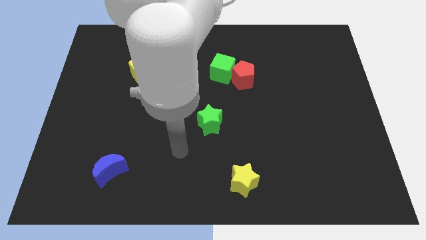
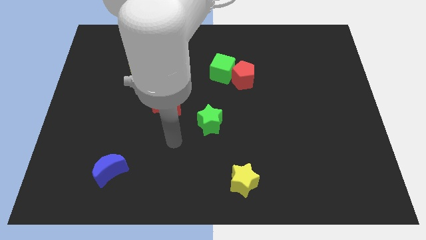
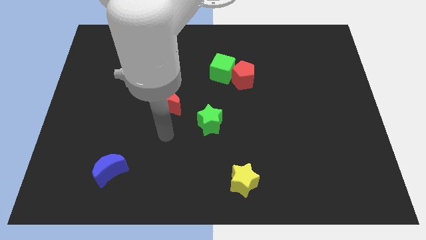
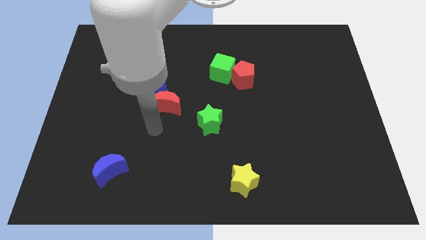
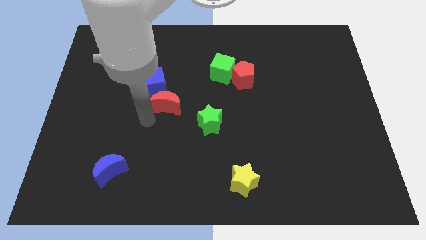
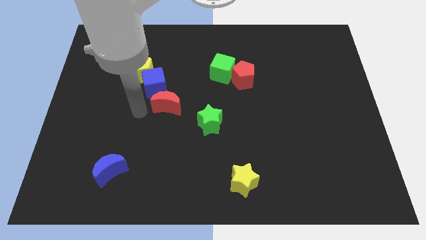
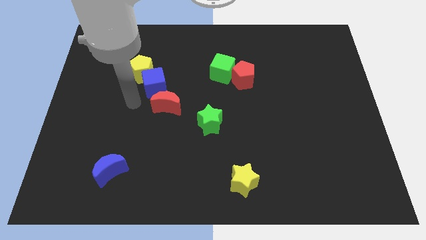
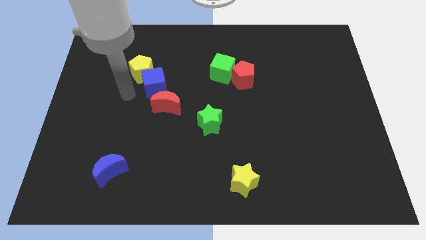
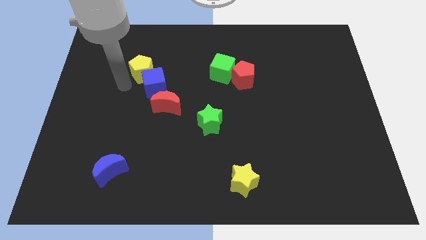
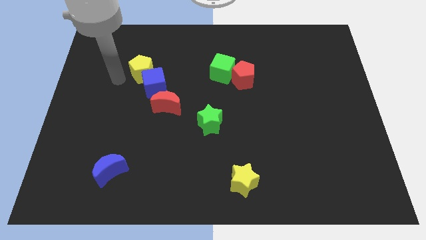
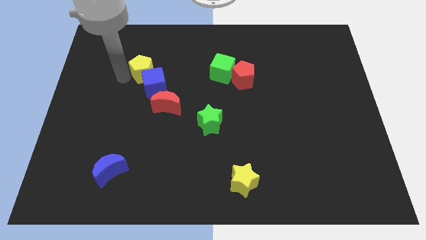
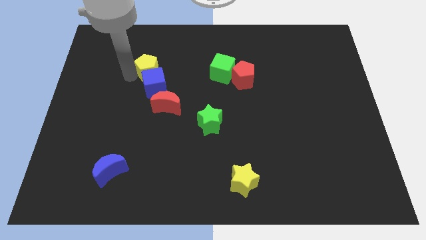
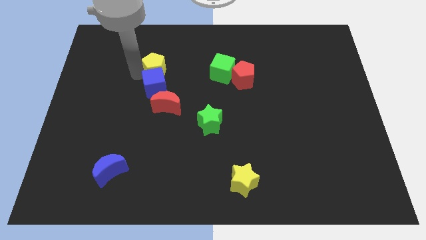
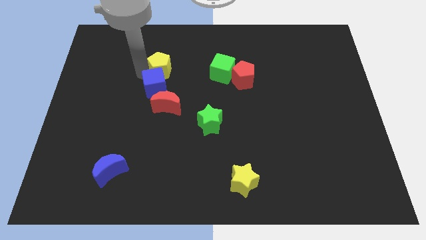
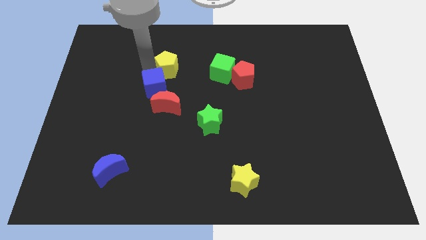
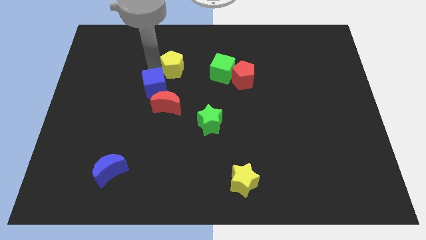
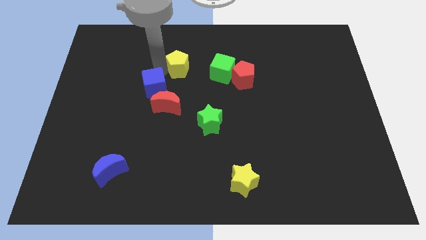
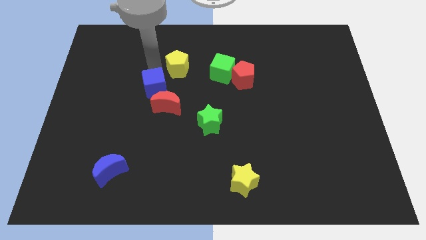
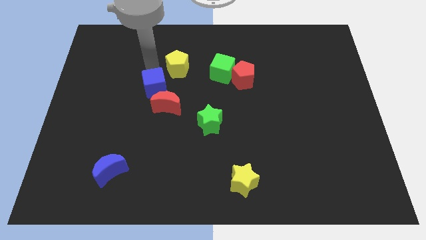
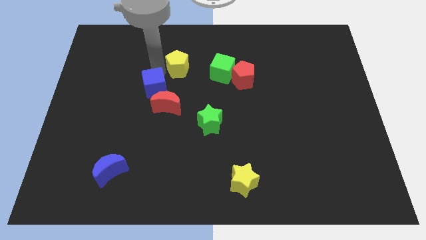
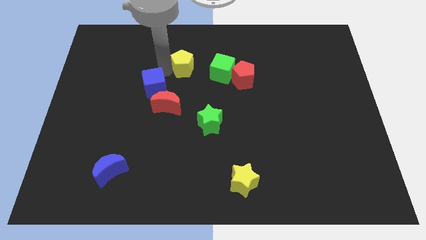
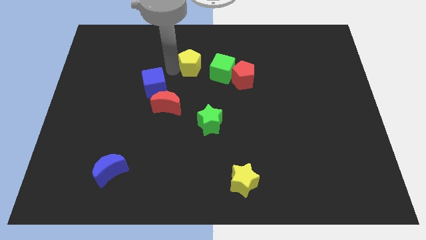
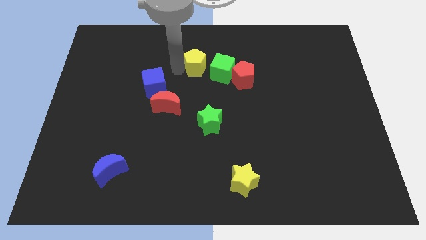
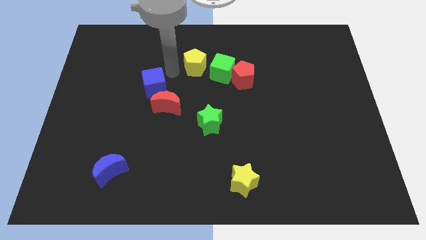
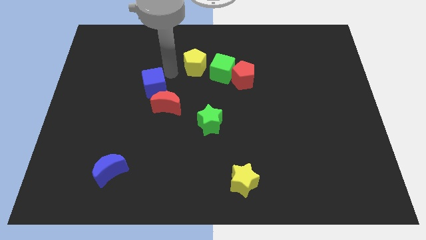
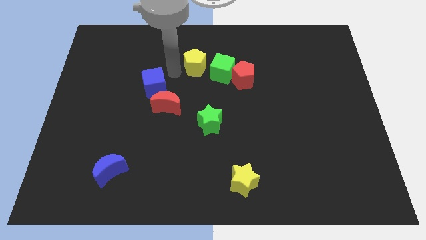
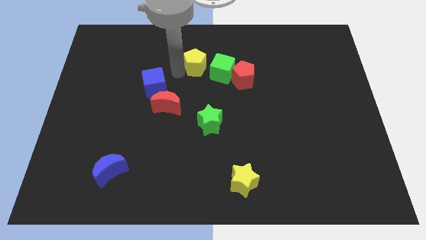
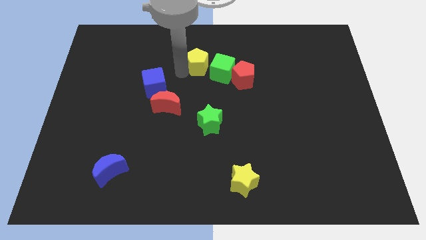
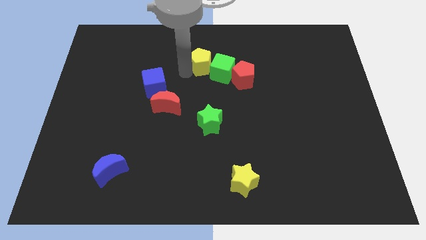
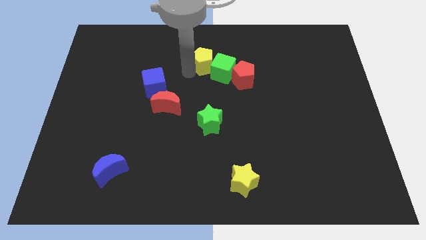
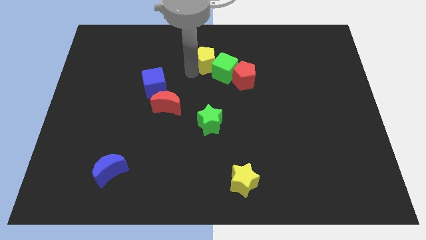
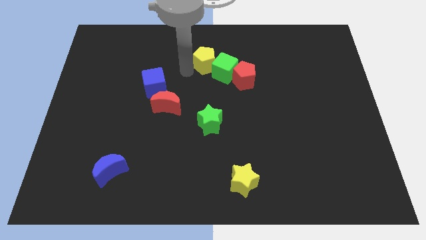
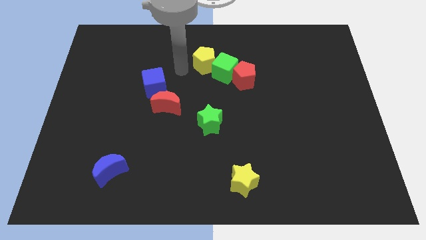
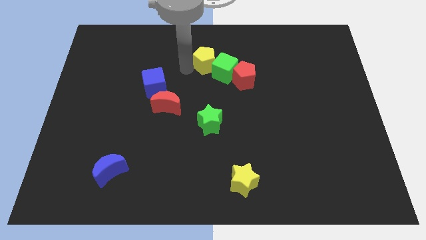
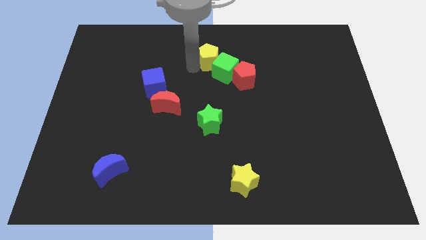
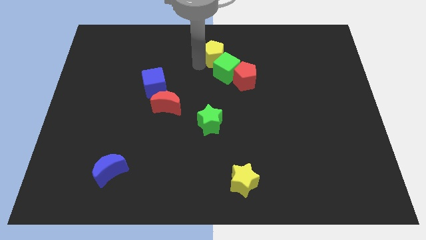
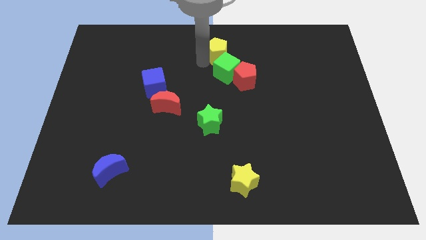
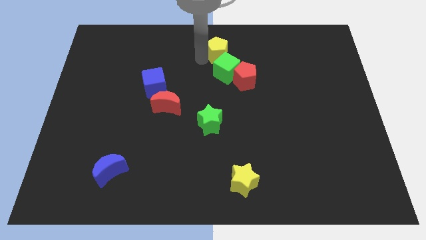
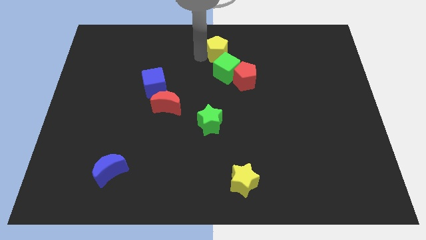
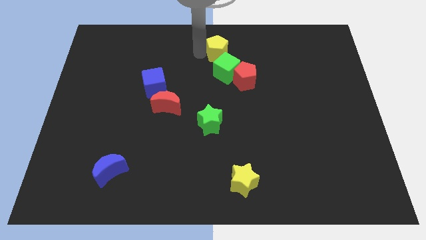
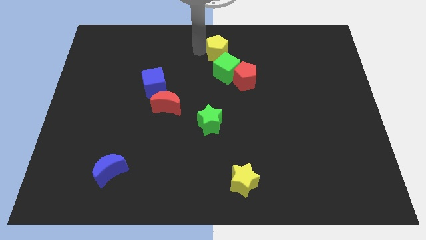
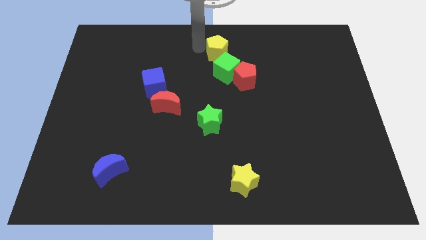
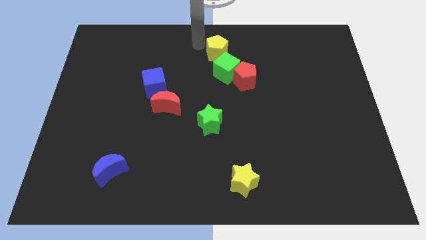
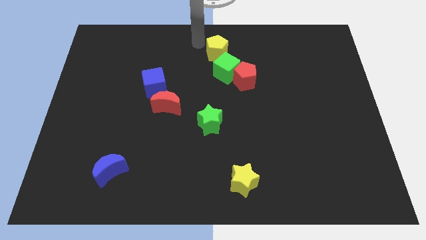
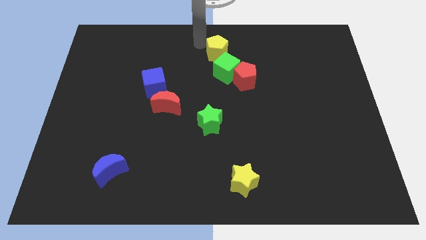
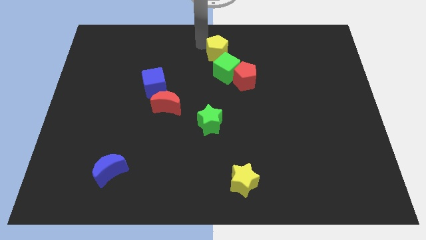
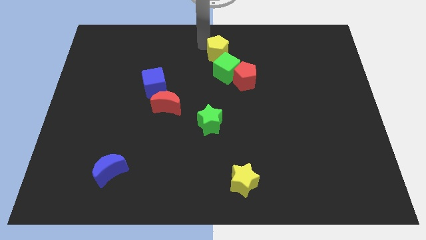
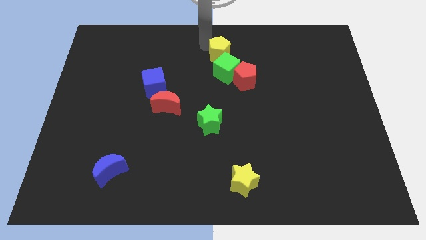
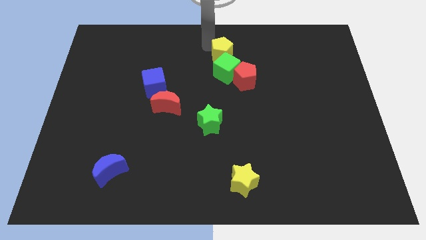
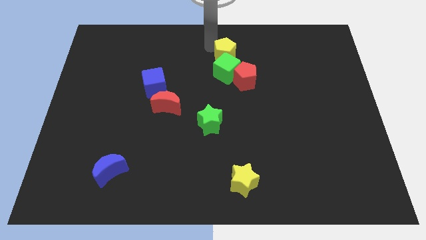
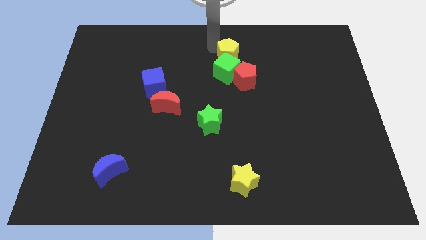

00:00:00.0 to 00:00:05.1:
move the yellow pentagon right

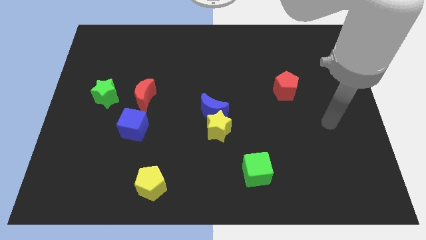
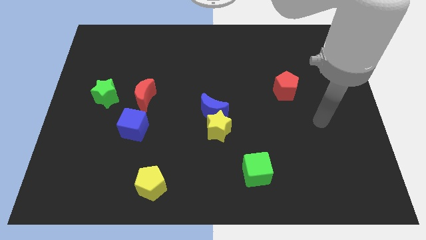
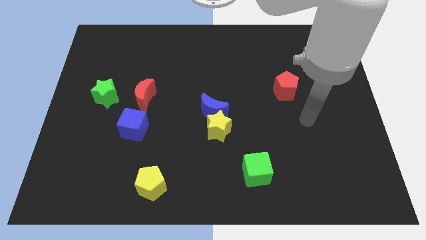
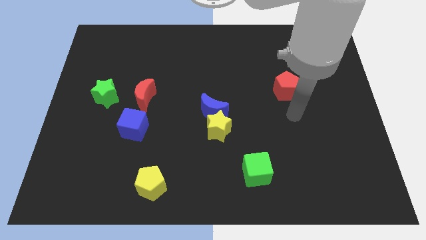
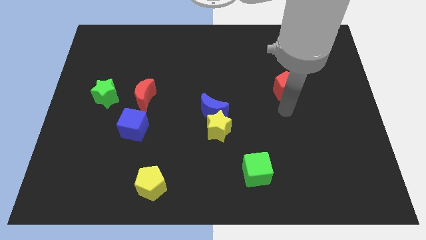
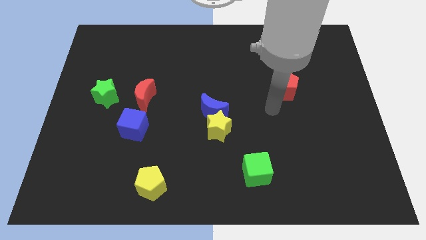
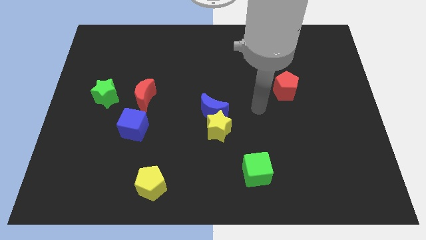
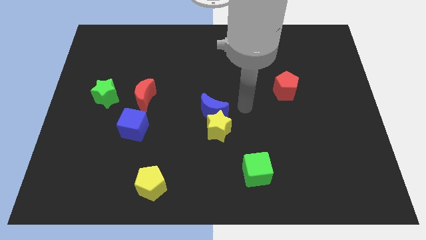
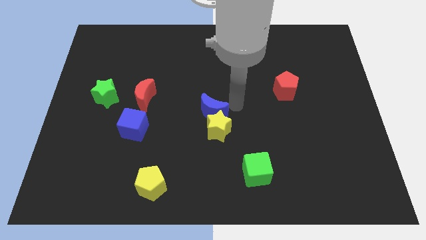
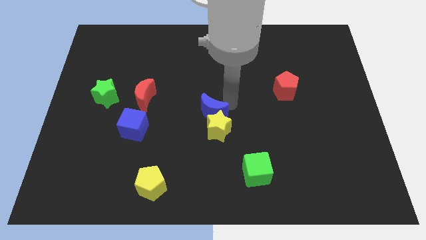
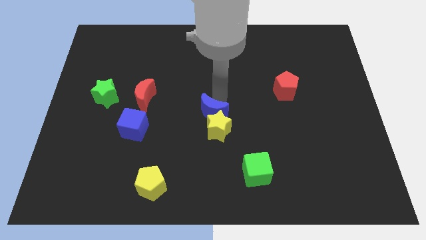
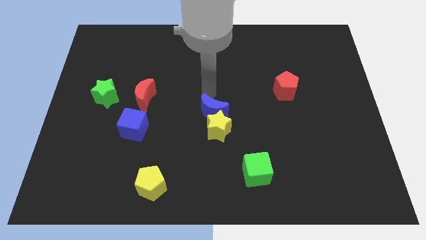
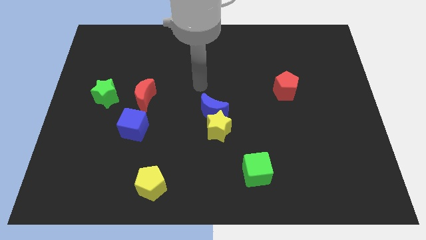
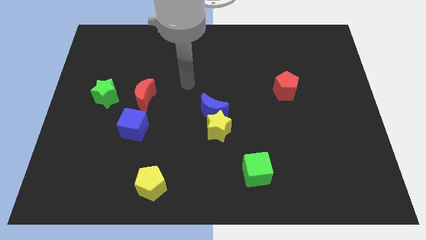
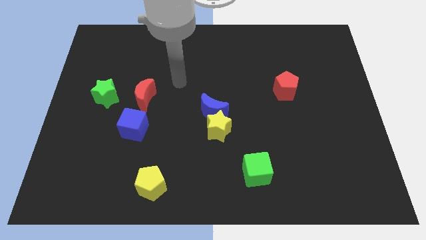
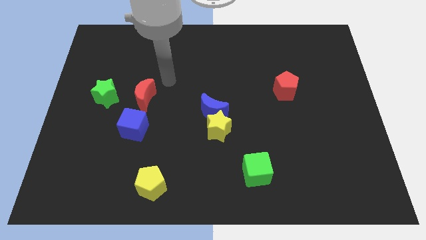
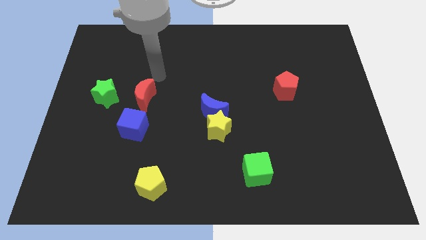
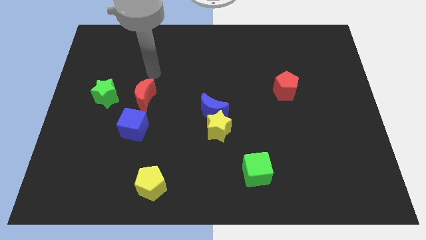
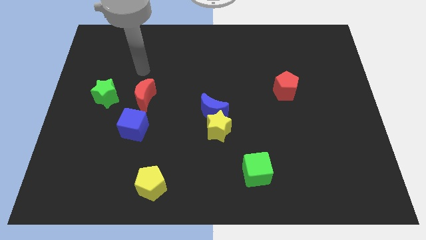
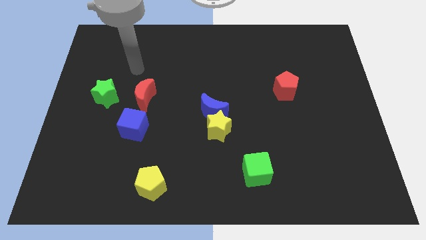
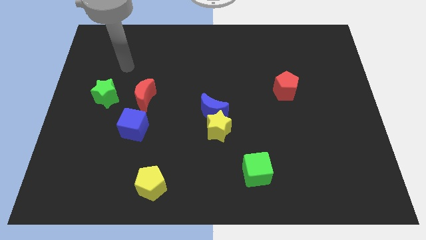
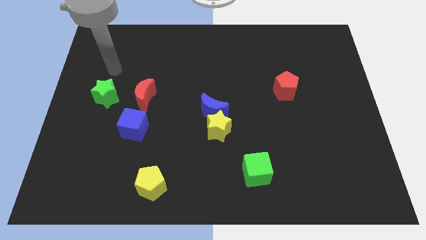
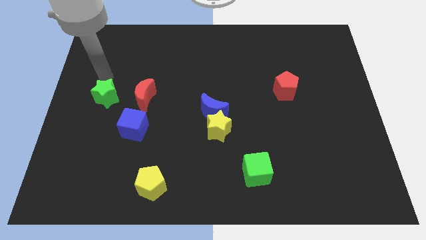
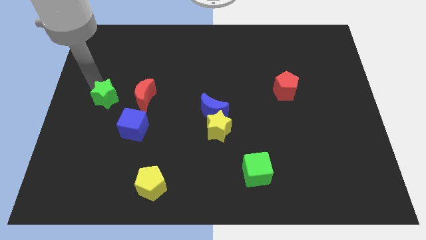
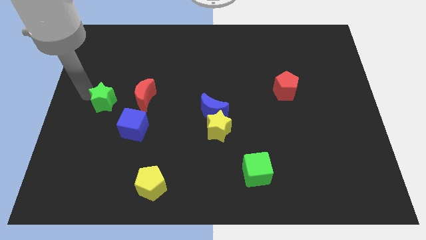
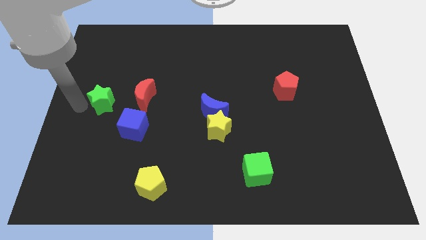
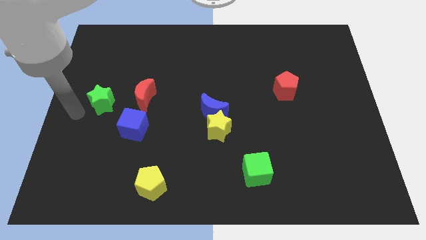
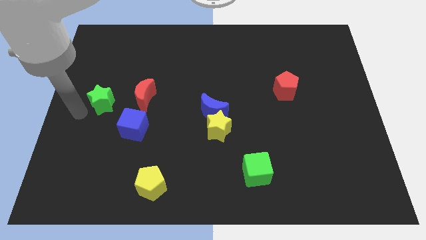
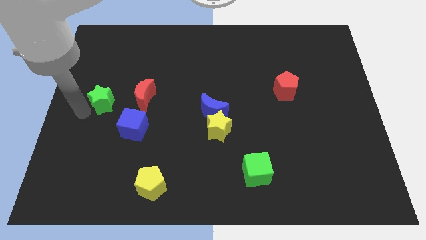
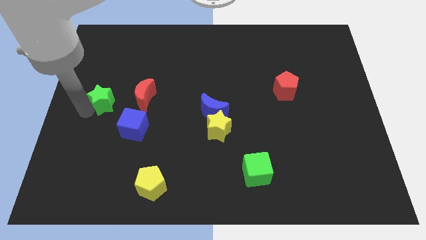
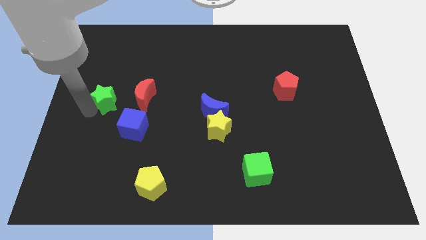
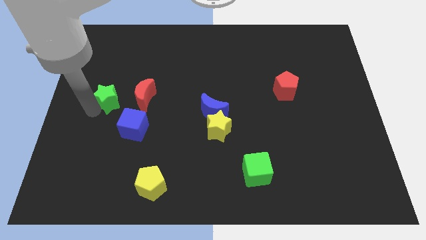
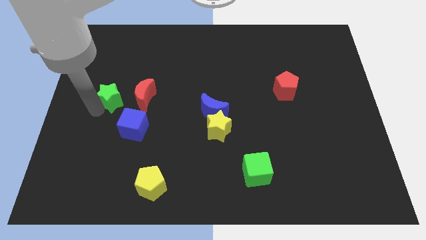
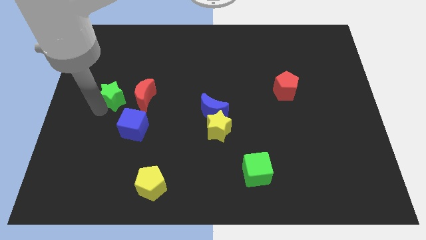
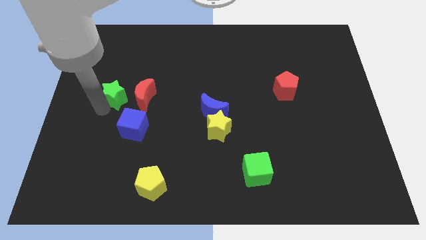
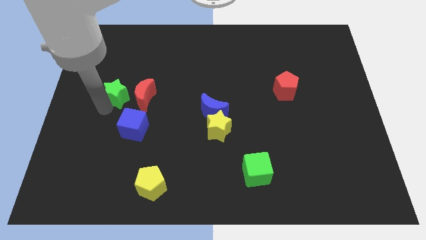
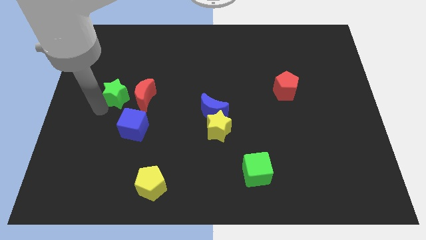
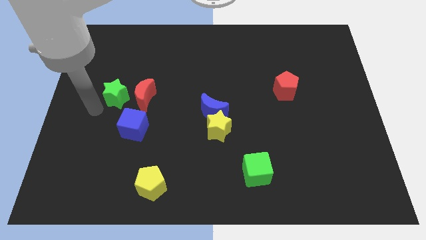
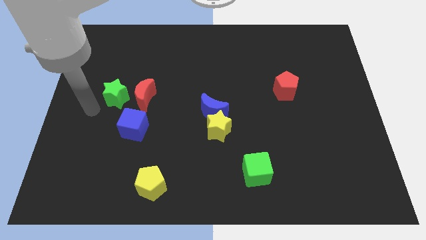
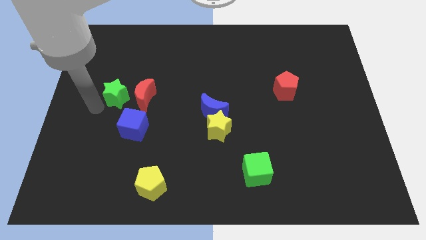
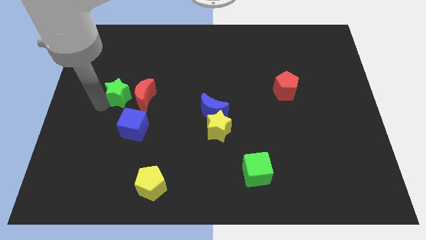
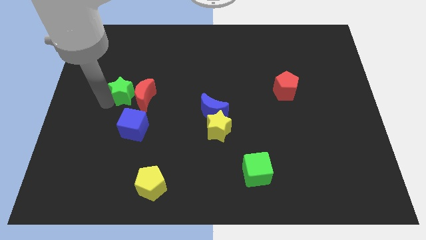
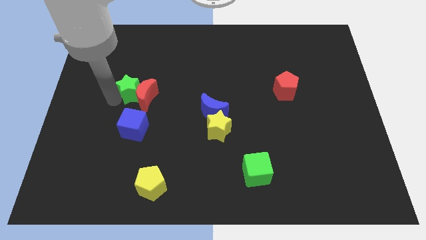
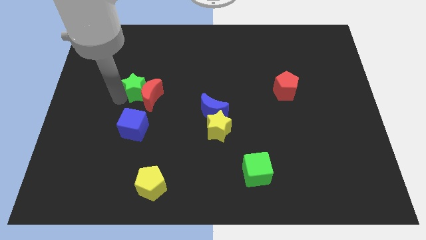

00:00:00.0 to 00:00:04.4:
move the green star to the right somewhat
